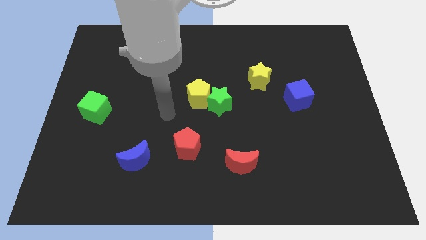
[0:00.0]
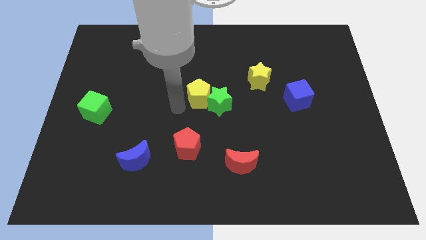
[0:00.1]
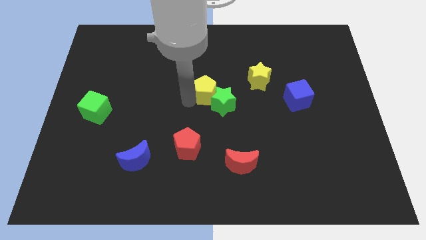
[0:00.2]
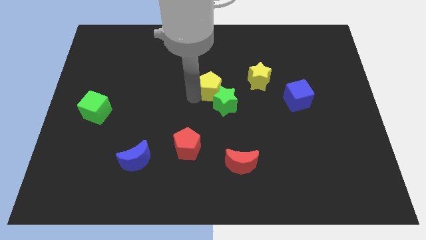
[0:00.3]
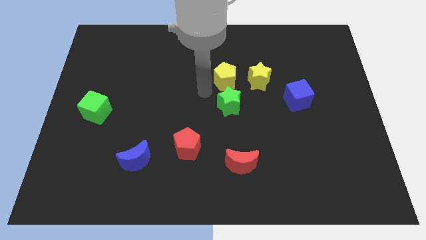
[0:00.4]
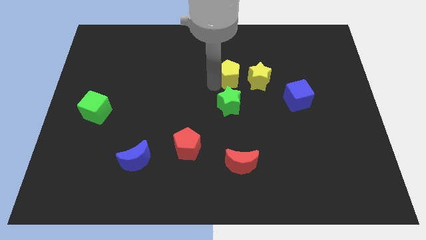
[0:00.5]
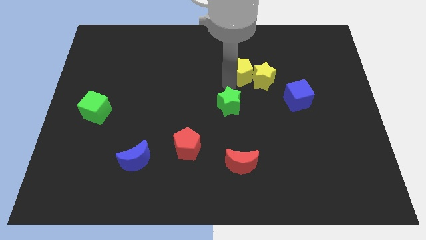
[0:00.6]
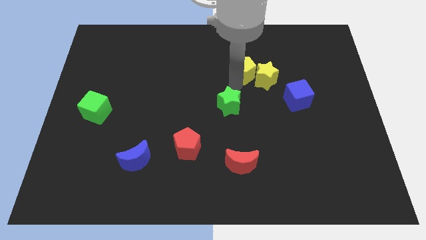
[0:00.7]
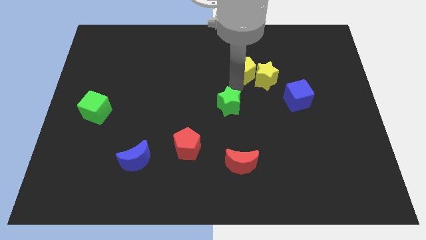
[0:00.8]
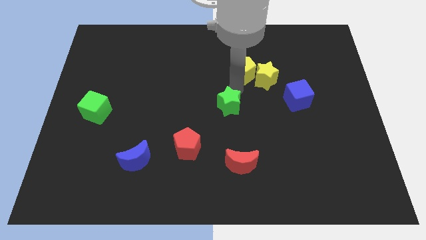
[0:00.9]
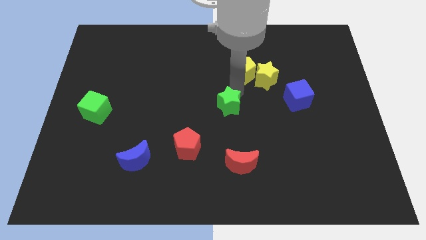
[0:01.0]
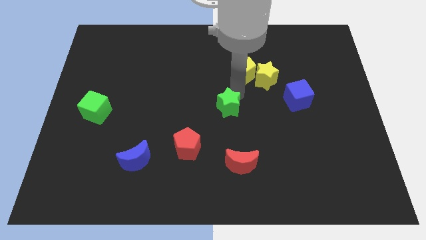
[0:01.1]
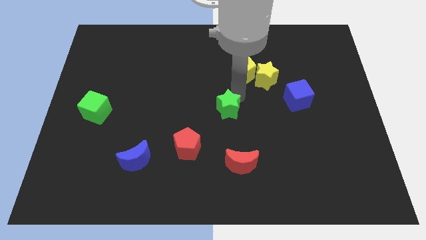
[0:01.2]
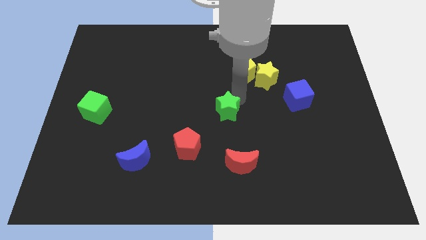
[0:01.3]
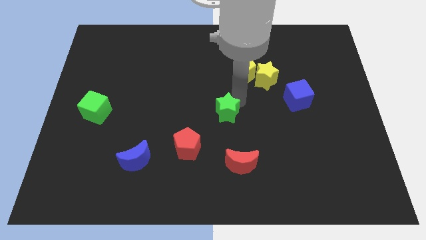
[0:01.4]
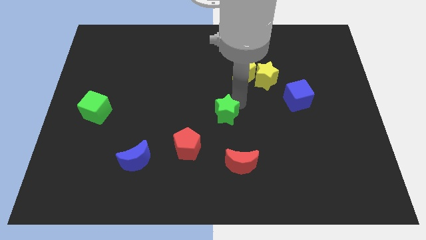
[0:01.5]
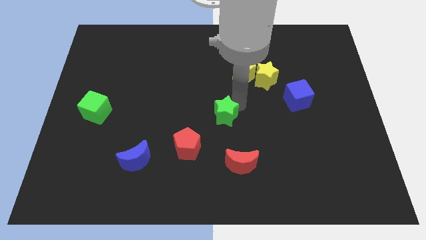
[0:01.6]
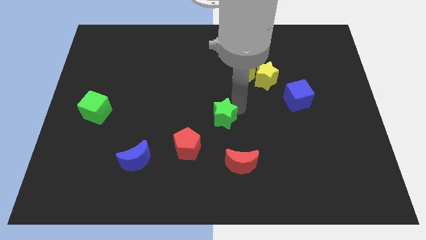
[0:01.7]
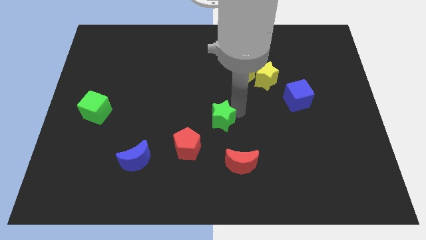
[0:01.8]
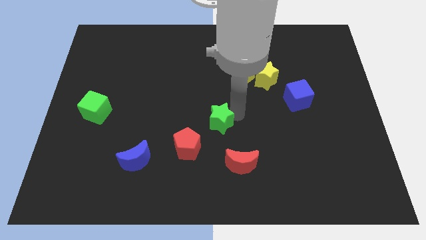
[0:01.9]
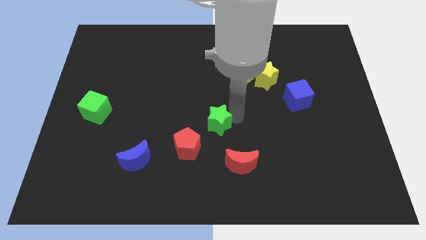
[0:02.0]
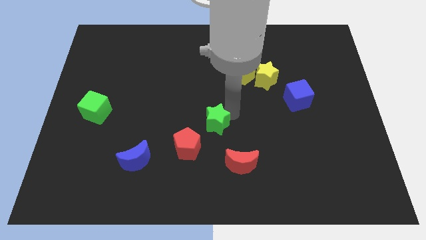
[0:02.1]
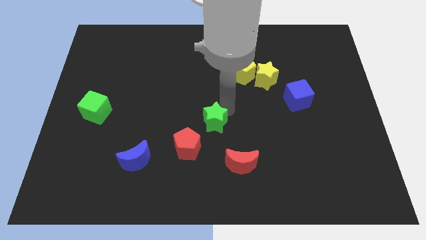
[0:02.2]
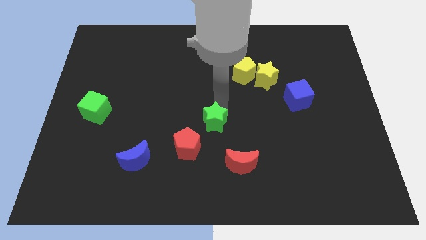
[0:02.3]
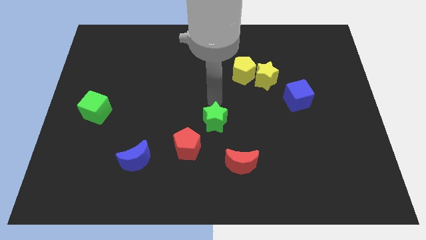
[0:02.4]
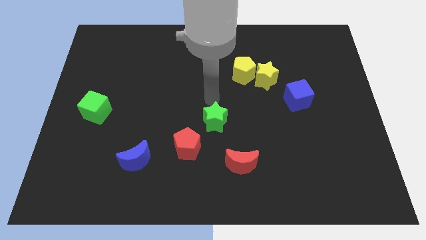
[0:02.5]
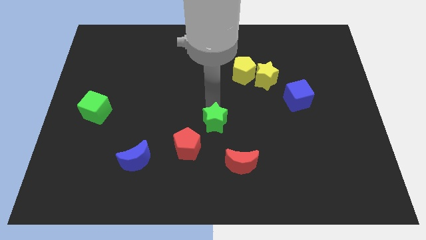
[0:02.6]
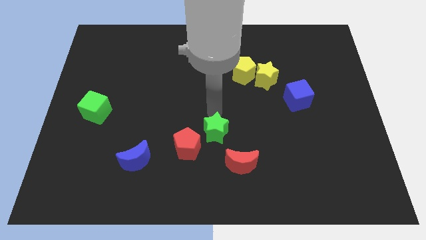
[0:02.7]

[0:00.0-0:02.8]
push the green star a little downwards

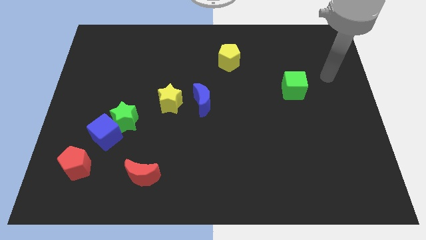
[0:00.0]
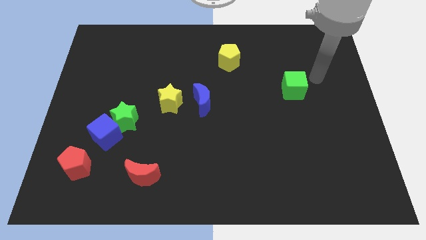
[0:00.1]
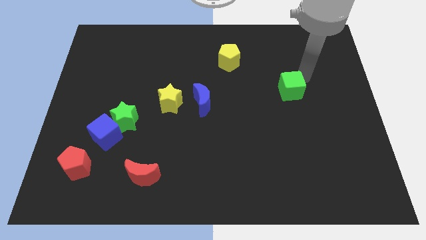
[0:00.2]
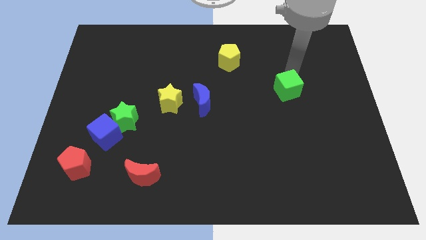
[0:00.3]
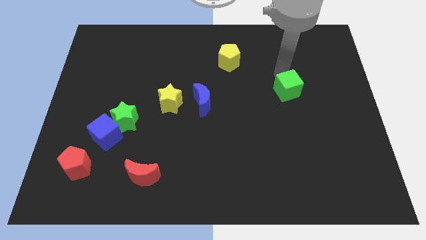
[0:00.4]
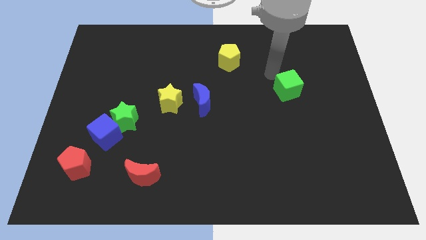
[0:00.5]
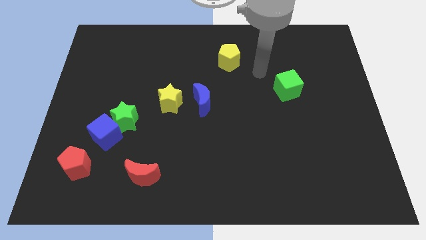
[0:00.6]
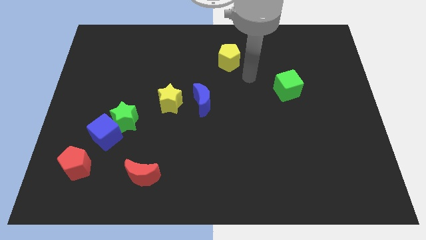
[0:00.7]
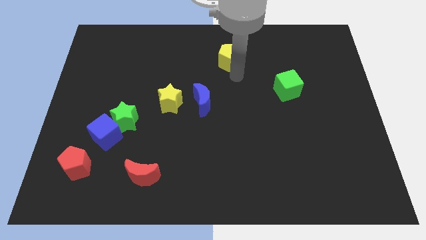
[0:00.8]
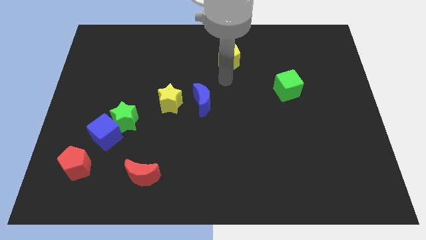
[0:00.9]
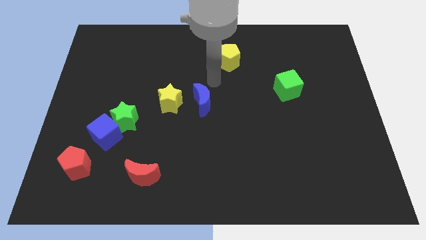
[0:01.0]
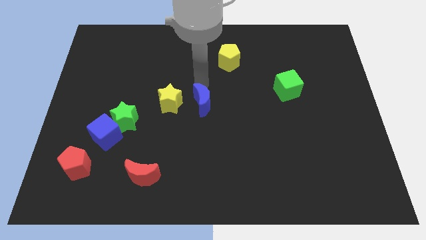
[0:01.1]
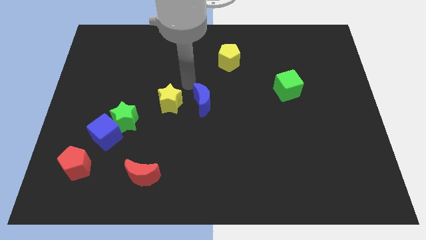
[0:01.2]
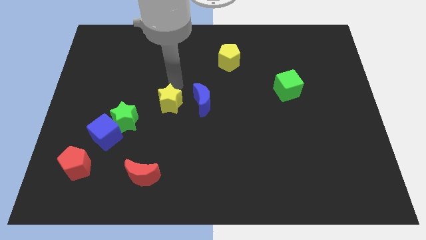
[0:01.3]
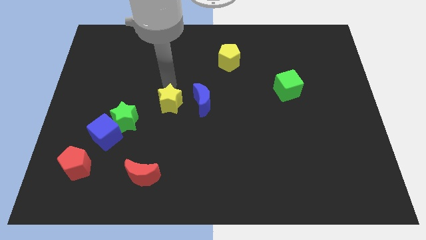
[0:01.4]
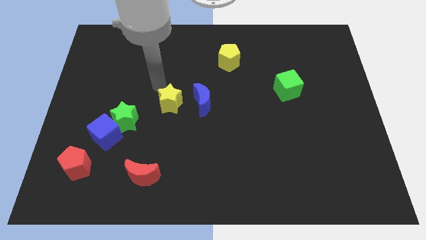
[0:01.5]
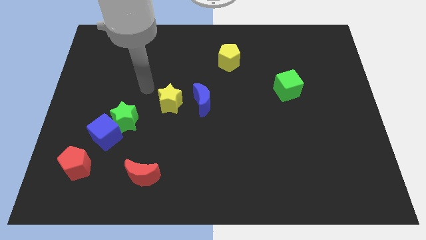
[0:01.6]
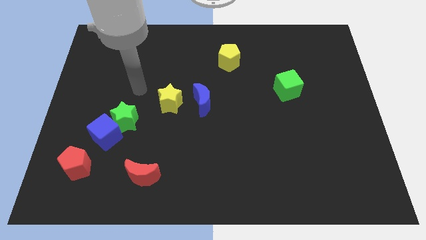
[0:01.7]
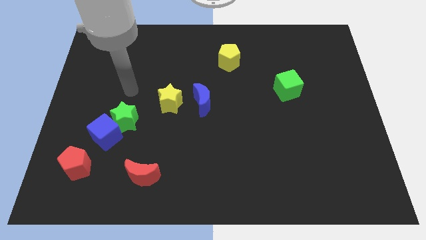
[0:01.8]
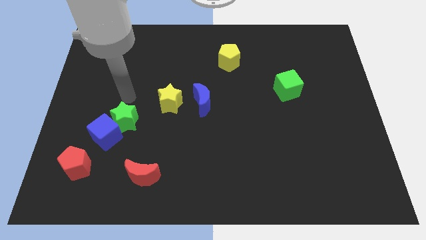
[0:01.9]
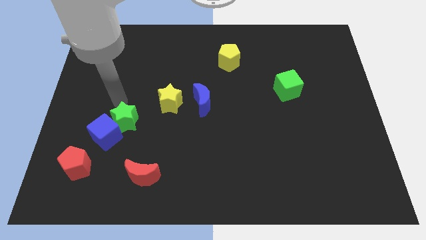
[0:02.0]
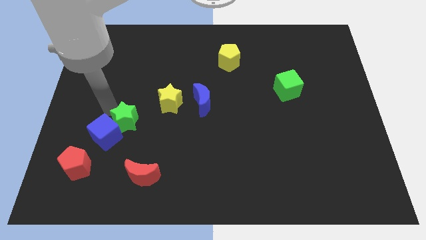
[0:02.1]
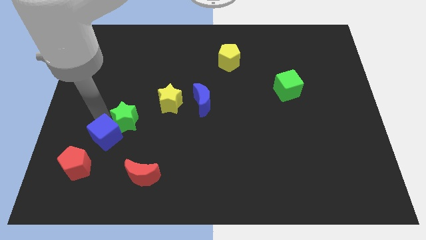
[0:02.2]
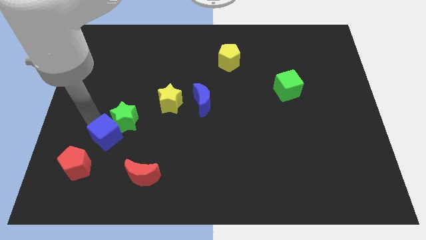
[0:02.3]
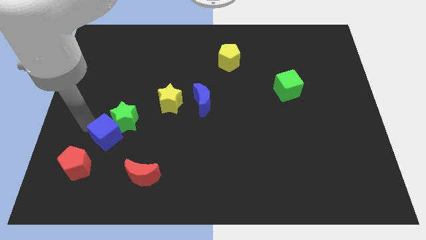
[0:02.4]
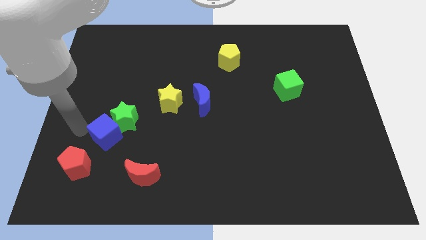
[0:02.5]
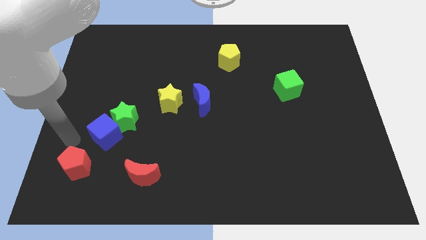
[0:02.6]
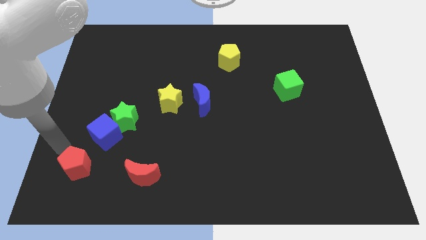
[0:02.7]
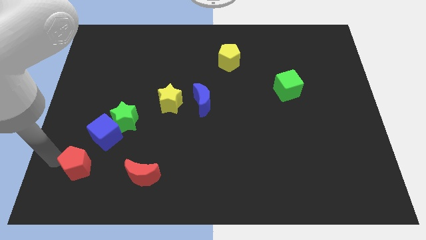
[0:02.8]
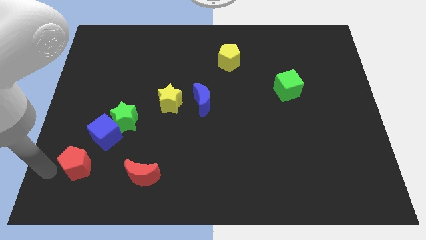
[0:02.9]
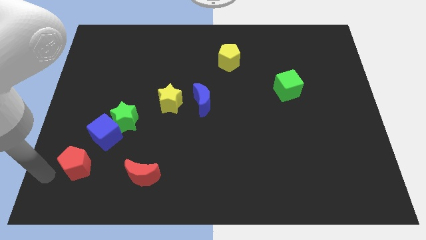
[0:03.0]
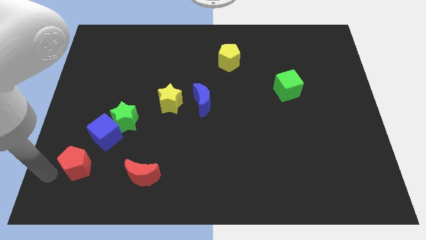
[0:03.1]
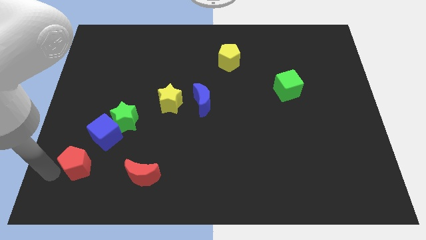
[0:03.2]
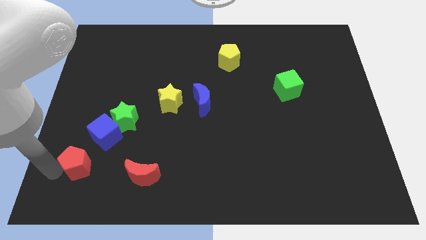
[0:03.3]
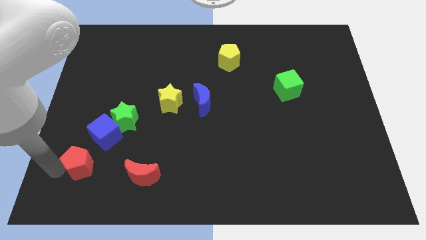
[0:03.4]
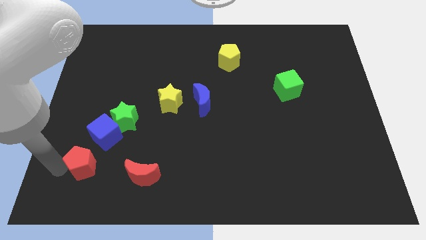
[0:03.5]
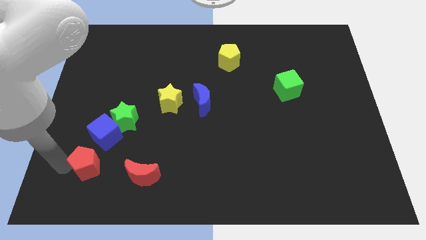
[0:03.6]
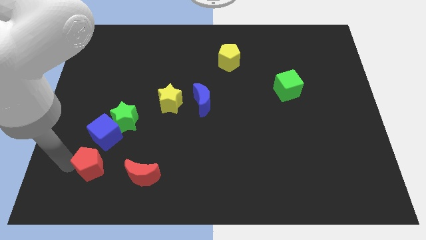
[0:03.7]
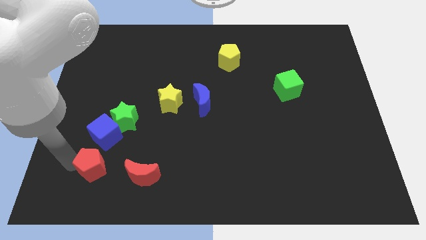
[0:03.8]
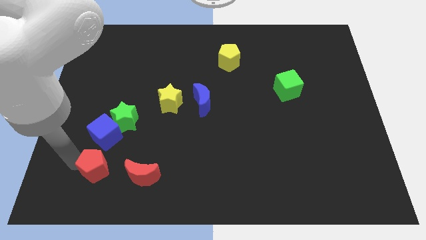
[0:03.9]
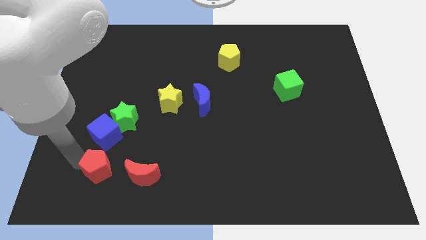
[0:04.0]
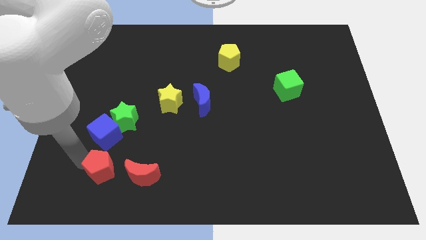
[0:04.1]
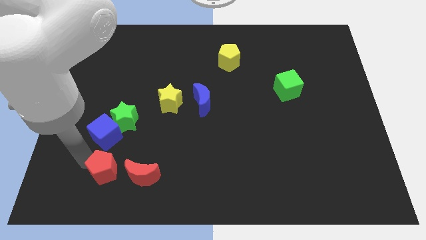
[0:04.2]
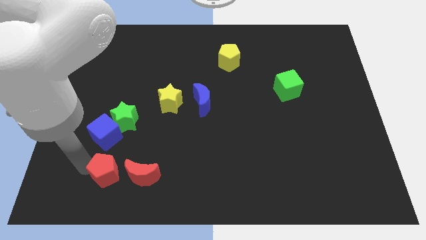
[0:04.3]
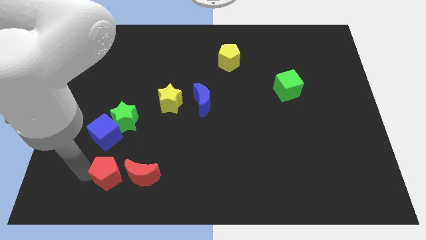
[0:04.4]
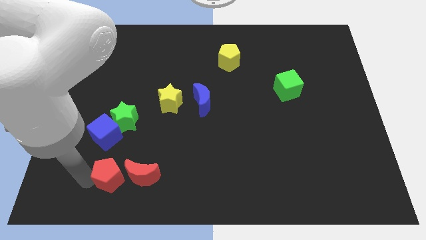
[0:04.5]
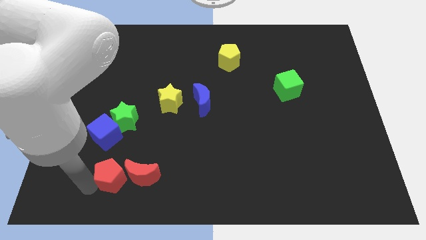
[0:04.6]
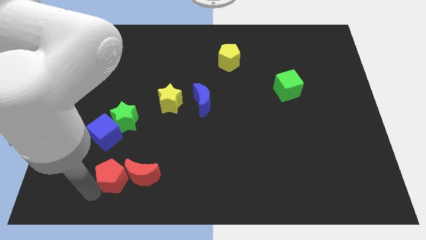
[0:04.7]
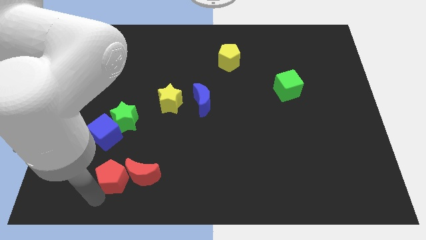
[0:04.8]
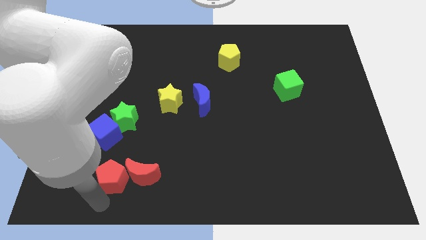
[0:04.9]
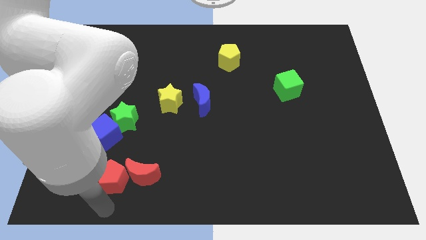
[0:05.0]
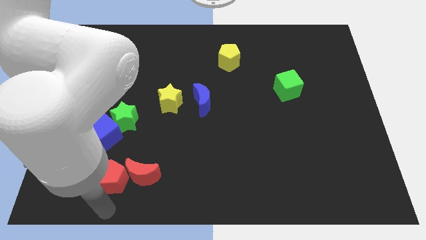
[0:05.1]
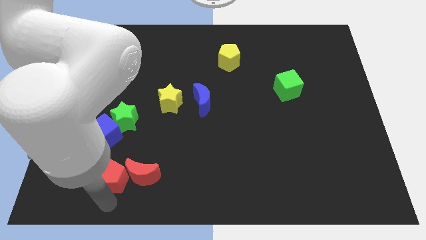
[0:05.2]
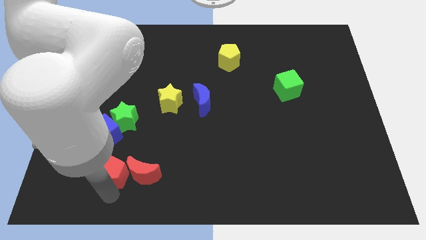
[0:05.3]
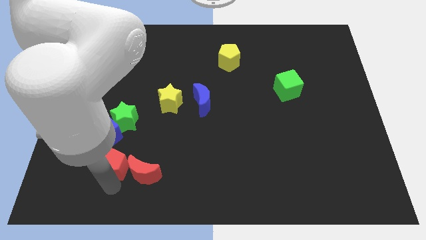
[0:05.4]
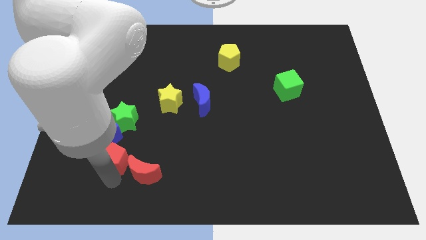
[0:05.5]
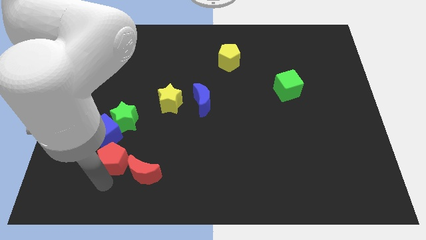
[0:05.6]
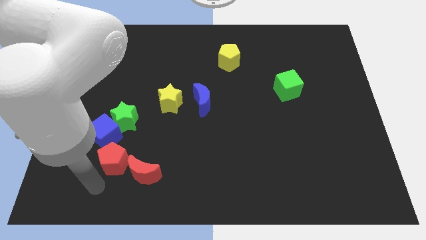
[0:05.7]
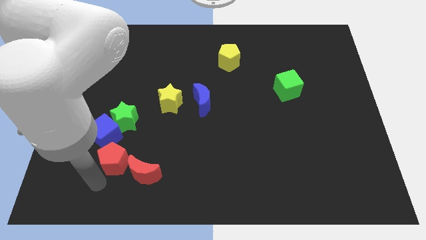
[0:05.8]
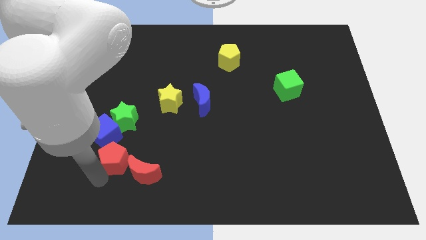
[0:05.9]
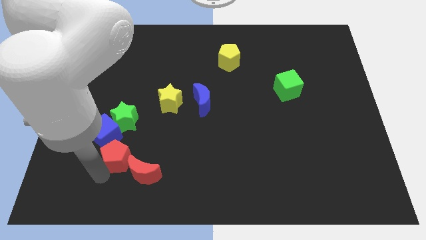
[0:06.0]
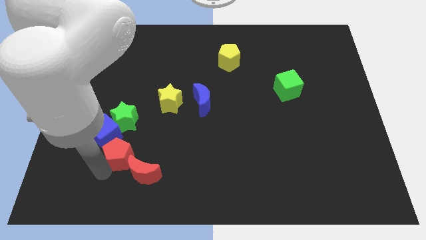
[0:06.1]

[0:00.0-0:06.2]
slightly move the red pentagon upwards and to the right
